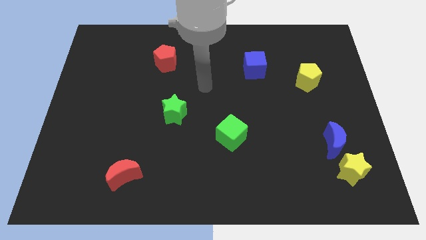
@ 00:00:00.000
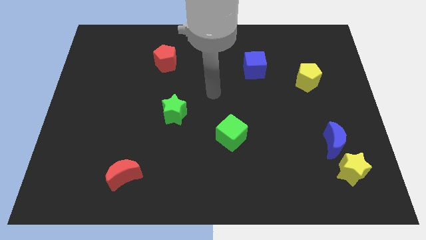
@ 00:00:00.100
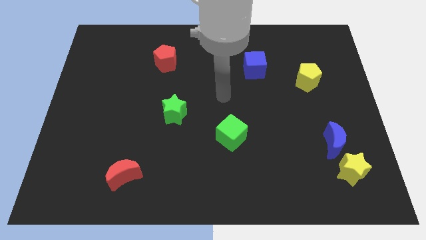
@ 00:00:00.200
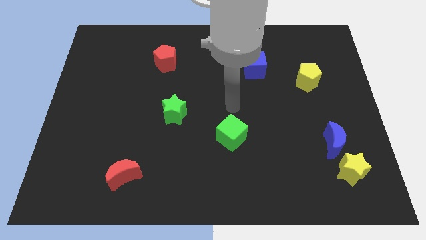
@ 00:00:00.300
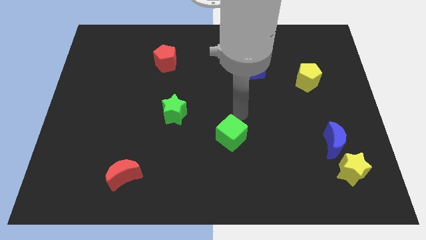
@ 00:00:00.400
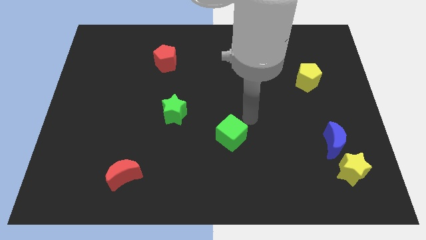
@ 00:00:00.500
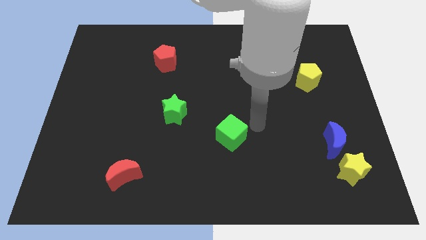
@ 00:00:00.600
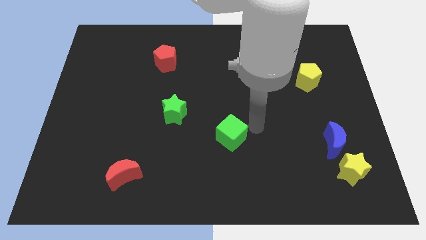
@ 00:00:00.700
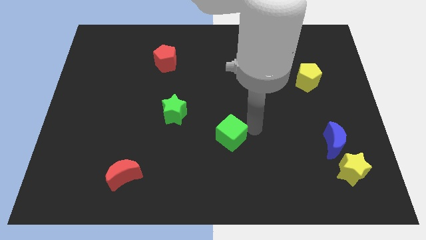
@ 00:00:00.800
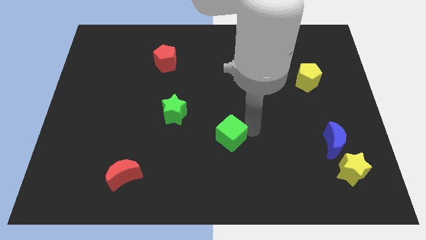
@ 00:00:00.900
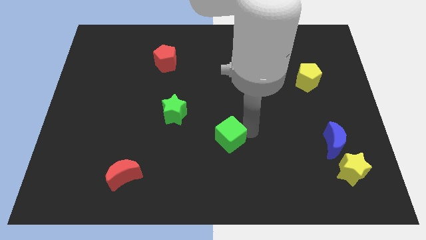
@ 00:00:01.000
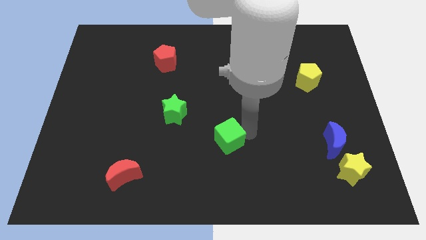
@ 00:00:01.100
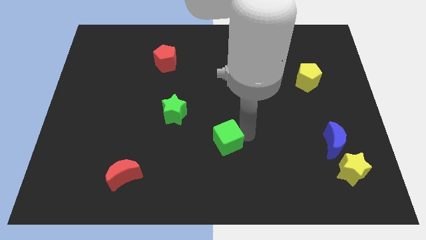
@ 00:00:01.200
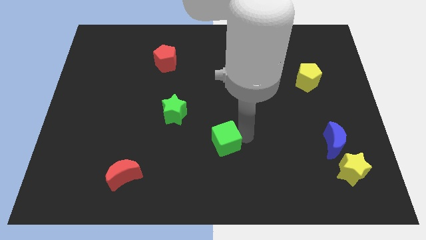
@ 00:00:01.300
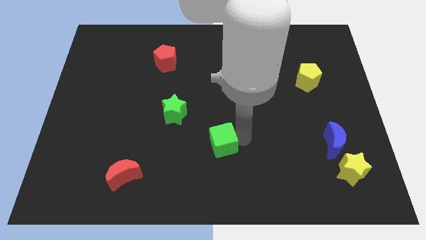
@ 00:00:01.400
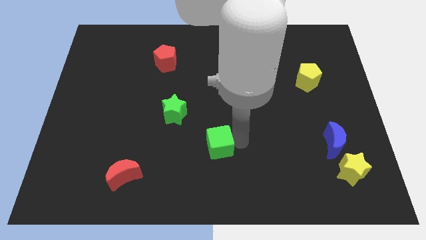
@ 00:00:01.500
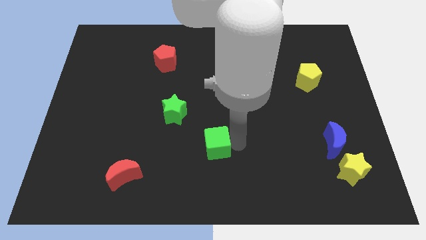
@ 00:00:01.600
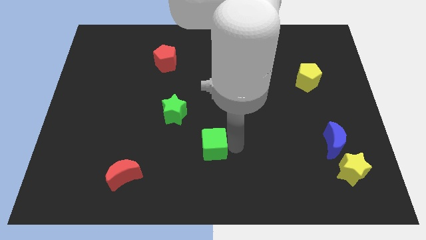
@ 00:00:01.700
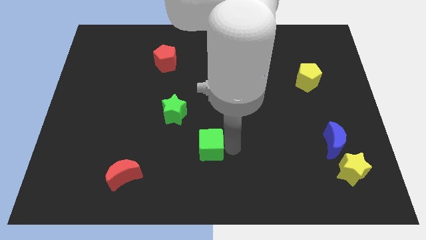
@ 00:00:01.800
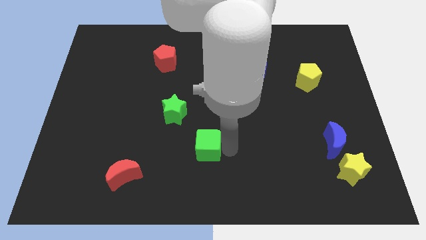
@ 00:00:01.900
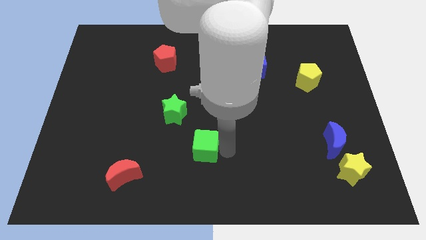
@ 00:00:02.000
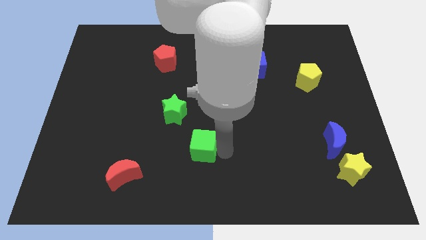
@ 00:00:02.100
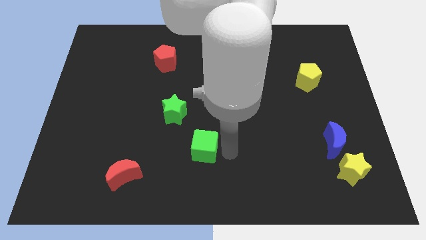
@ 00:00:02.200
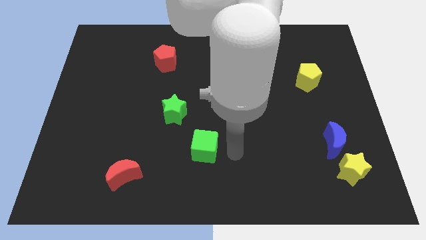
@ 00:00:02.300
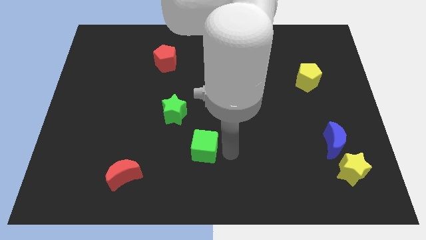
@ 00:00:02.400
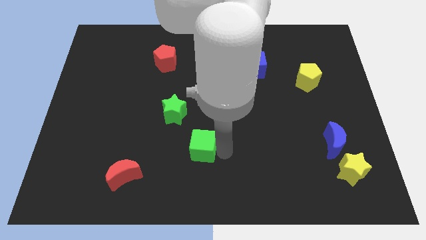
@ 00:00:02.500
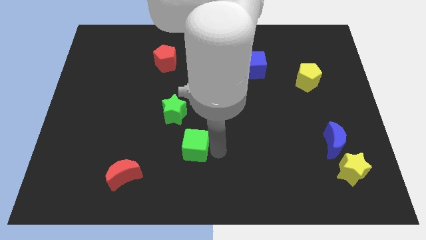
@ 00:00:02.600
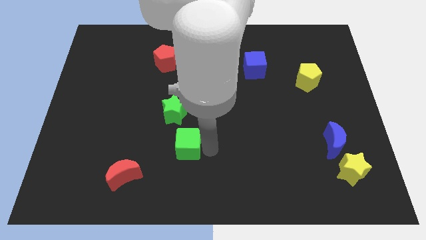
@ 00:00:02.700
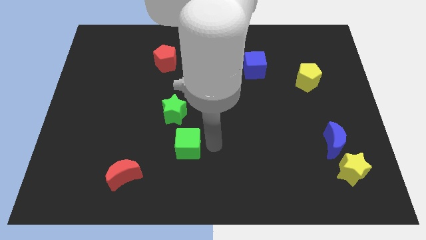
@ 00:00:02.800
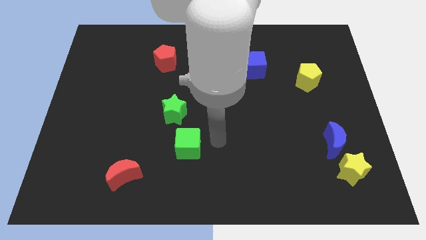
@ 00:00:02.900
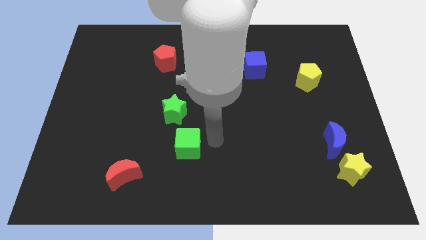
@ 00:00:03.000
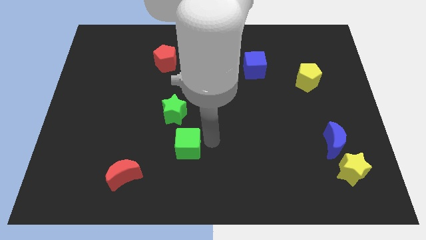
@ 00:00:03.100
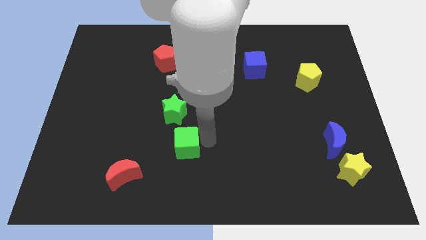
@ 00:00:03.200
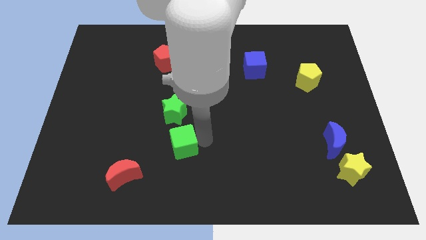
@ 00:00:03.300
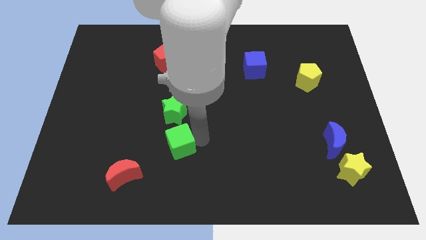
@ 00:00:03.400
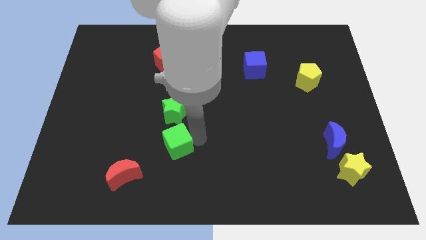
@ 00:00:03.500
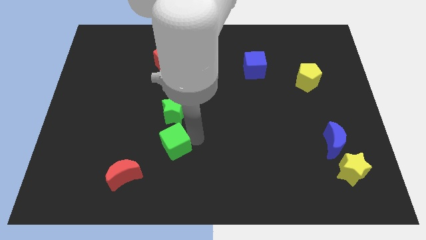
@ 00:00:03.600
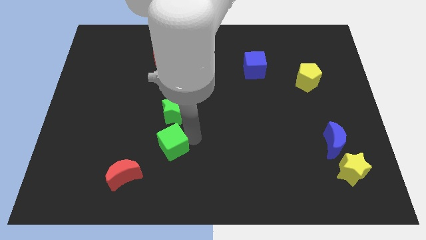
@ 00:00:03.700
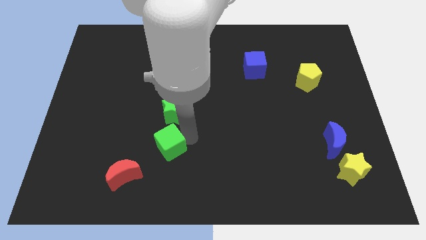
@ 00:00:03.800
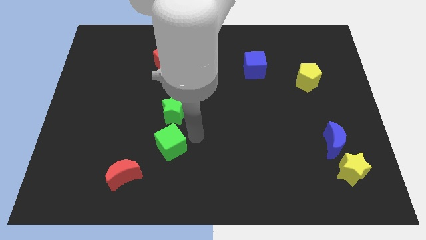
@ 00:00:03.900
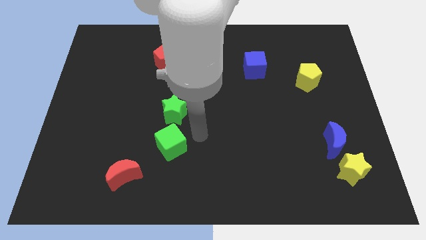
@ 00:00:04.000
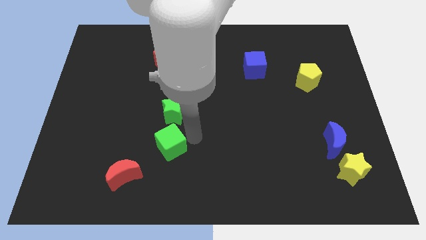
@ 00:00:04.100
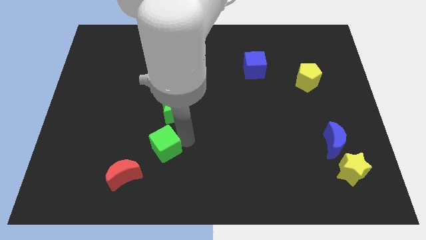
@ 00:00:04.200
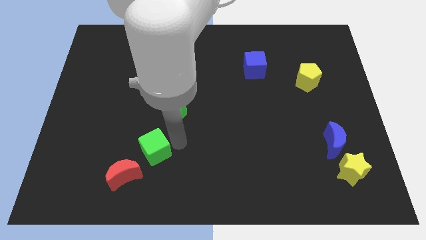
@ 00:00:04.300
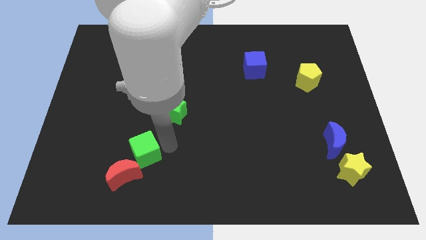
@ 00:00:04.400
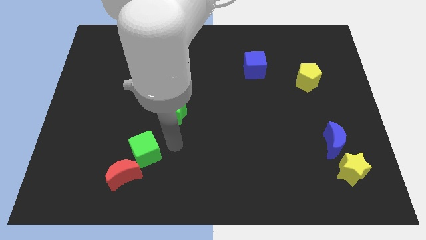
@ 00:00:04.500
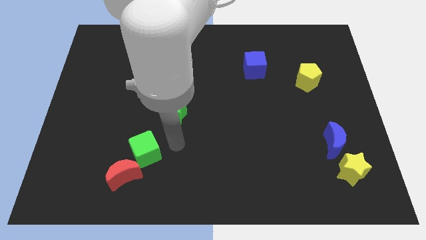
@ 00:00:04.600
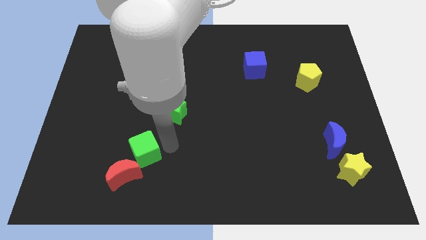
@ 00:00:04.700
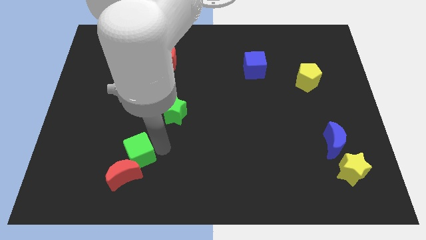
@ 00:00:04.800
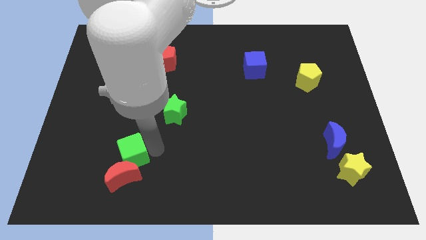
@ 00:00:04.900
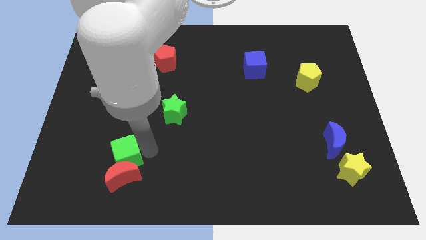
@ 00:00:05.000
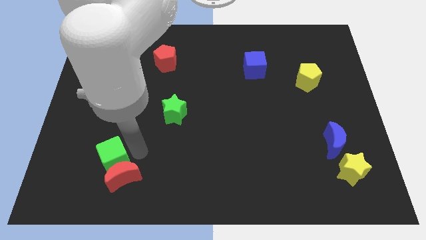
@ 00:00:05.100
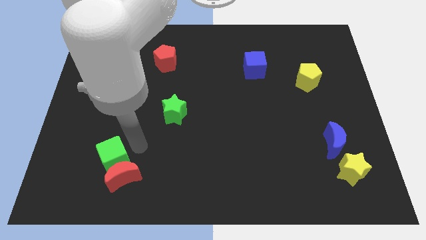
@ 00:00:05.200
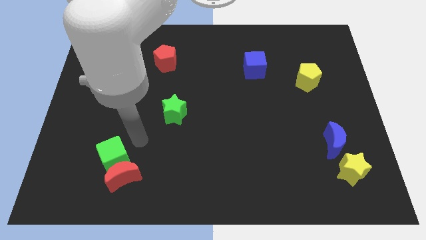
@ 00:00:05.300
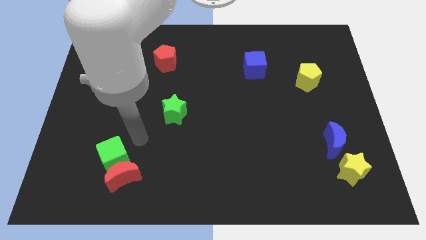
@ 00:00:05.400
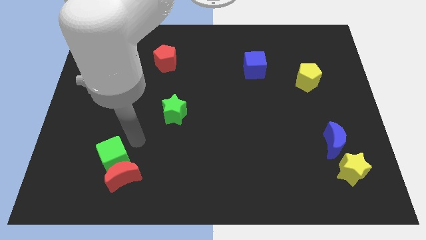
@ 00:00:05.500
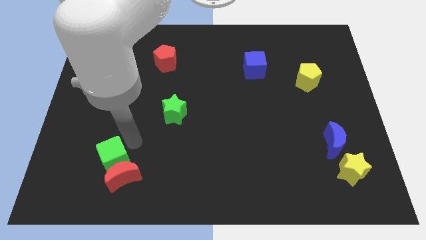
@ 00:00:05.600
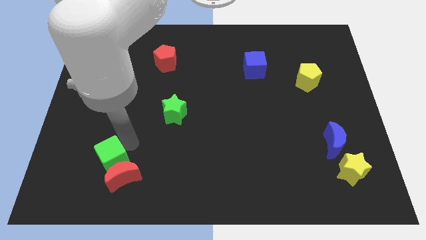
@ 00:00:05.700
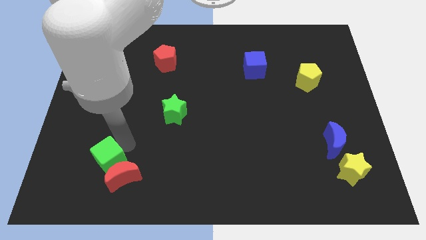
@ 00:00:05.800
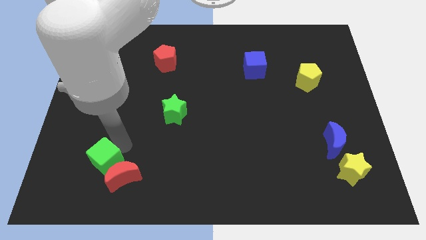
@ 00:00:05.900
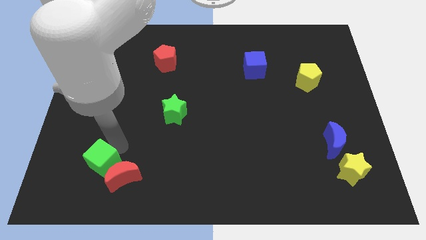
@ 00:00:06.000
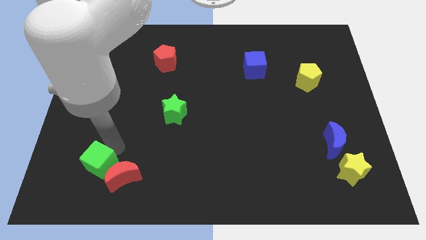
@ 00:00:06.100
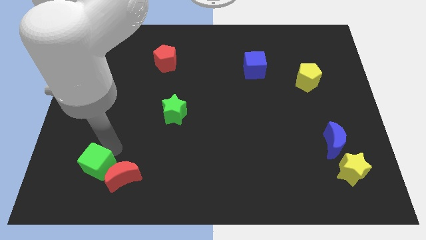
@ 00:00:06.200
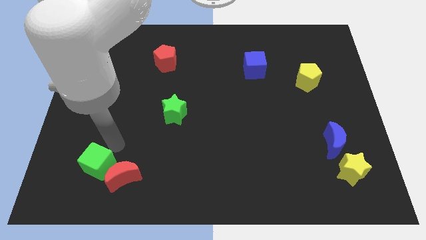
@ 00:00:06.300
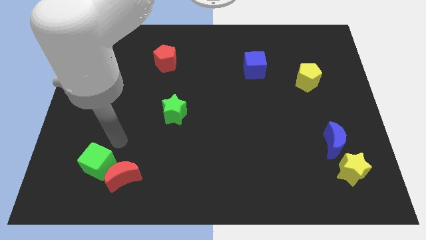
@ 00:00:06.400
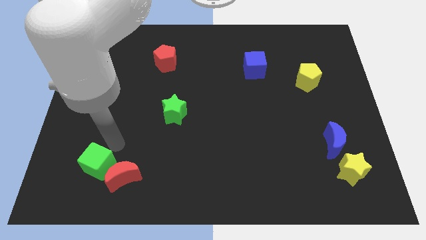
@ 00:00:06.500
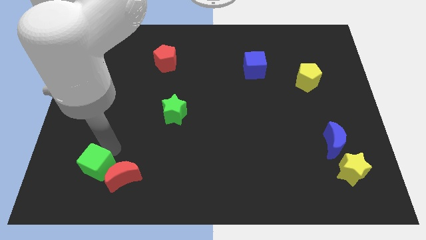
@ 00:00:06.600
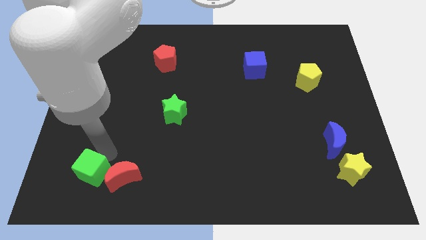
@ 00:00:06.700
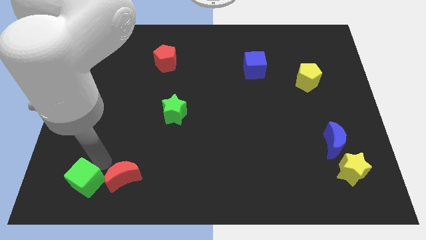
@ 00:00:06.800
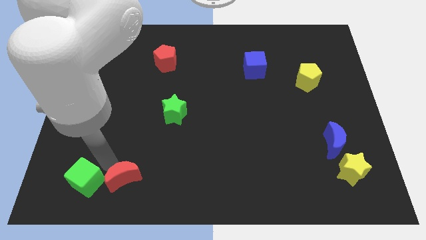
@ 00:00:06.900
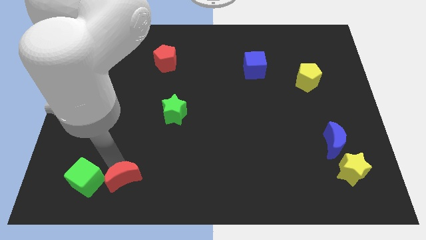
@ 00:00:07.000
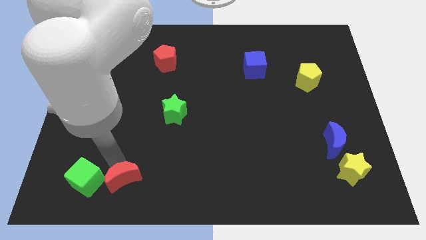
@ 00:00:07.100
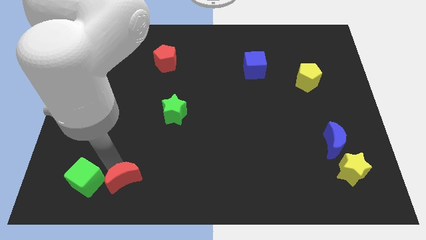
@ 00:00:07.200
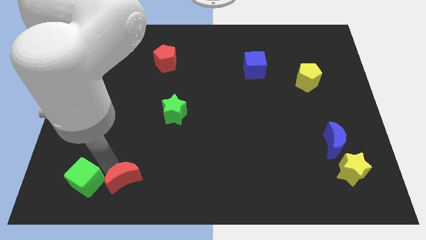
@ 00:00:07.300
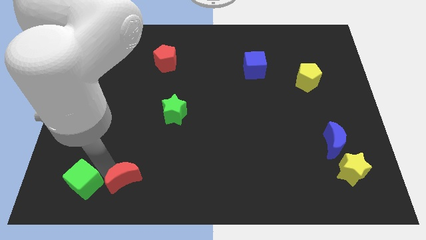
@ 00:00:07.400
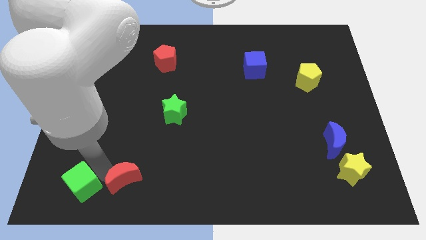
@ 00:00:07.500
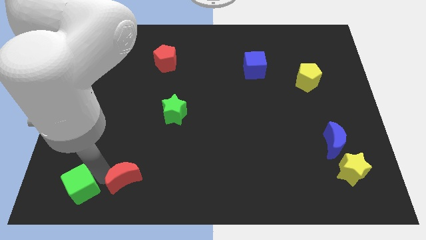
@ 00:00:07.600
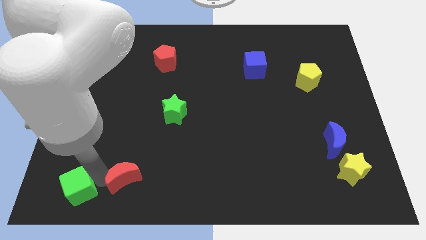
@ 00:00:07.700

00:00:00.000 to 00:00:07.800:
slide the green cube to the bottom left
